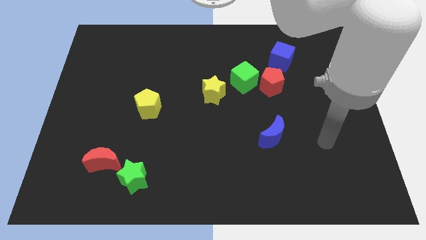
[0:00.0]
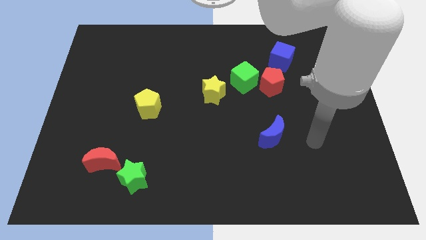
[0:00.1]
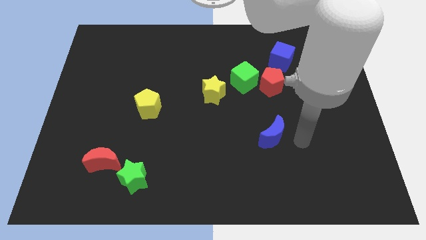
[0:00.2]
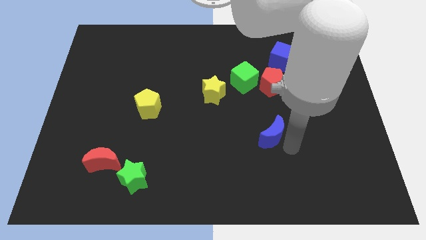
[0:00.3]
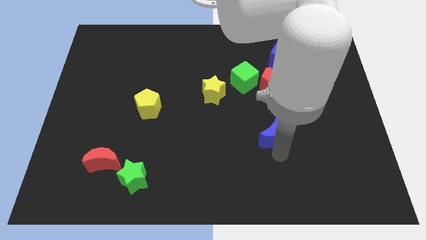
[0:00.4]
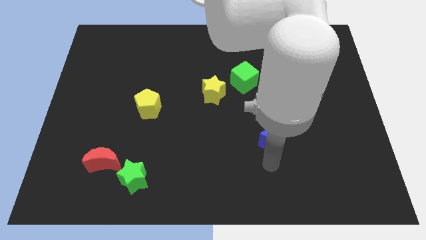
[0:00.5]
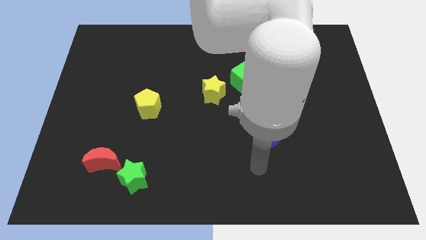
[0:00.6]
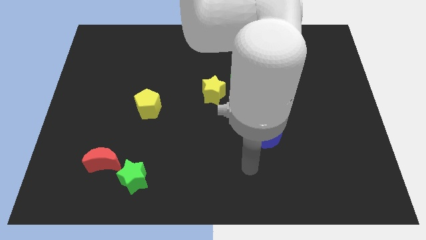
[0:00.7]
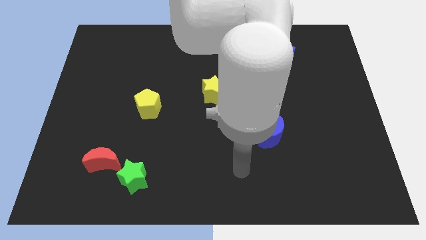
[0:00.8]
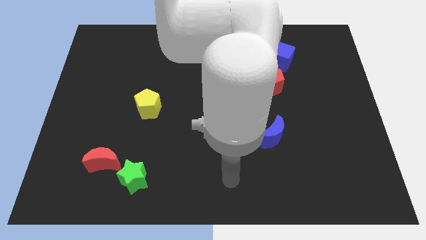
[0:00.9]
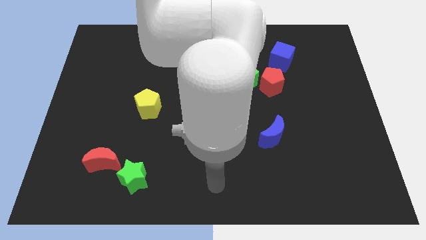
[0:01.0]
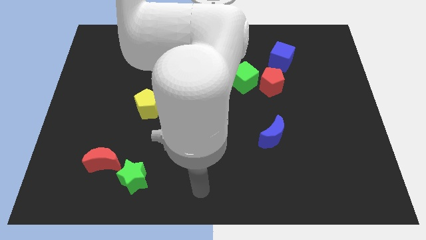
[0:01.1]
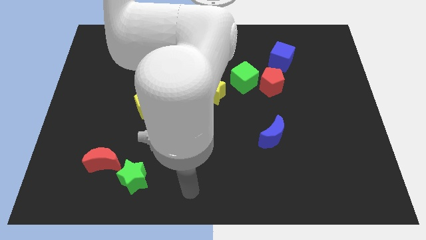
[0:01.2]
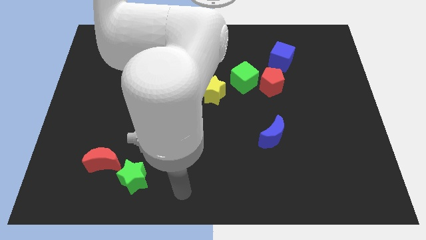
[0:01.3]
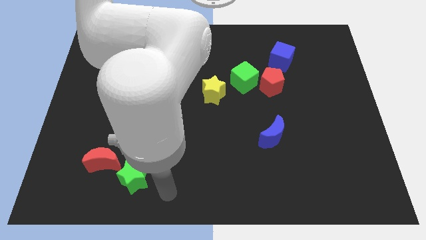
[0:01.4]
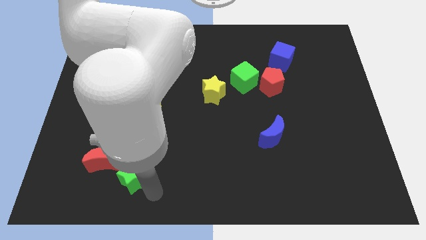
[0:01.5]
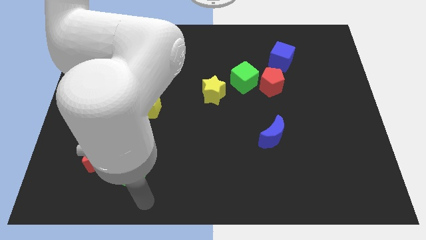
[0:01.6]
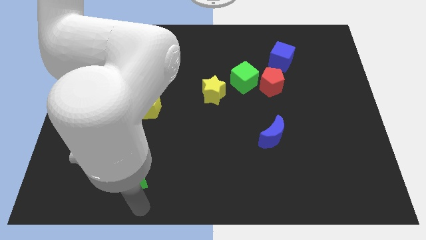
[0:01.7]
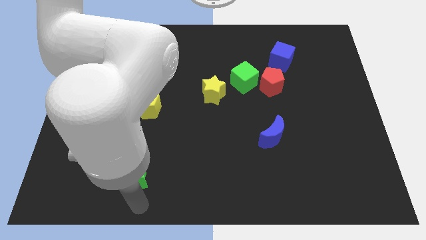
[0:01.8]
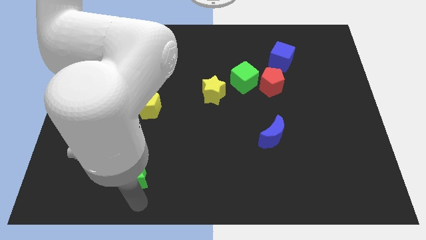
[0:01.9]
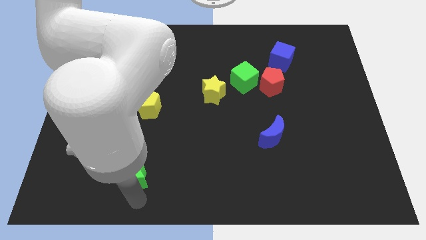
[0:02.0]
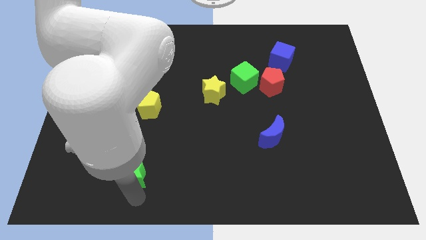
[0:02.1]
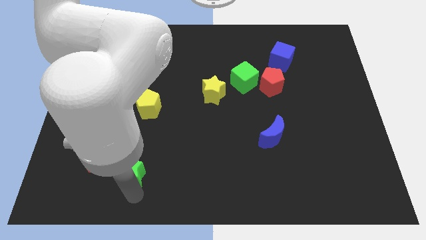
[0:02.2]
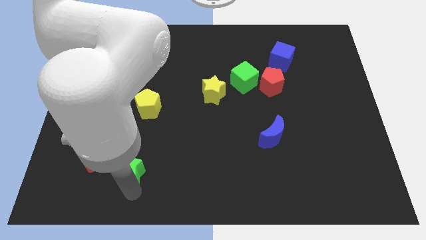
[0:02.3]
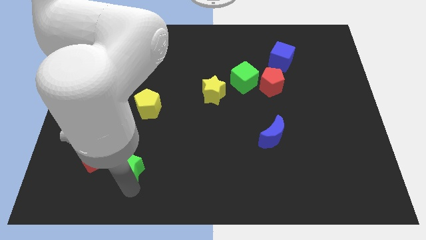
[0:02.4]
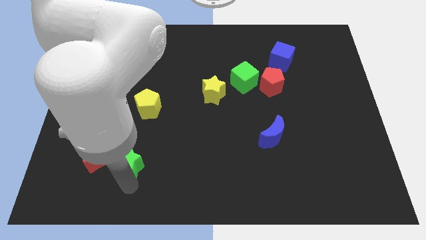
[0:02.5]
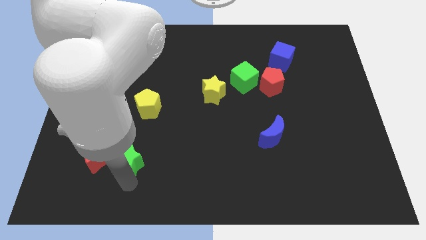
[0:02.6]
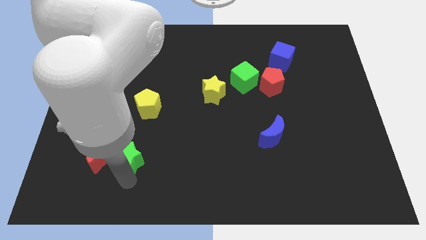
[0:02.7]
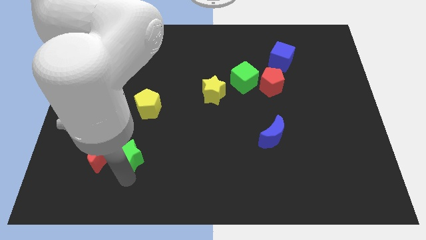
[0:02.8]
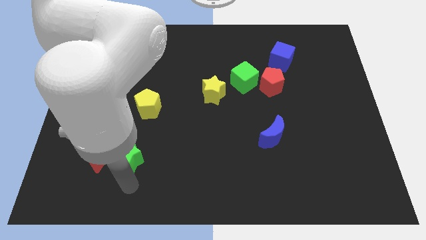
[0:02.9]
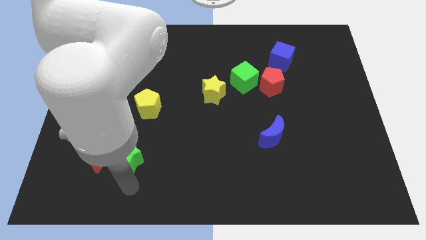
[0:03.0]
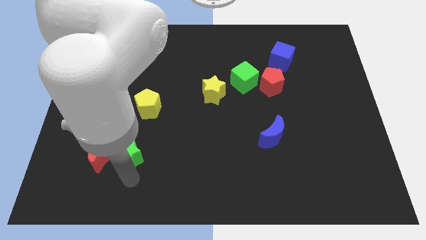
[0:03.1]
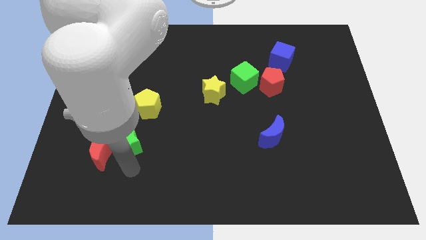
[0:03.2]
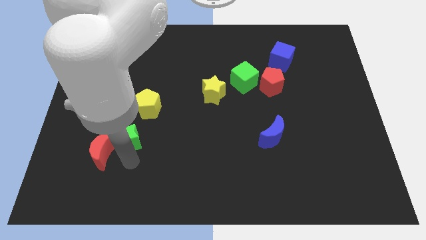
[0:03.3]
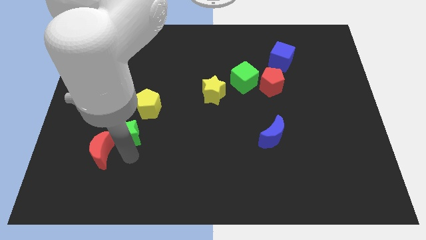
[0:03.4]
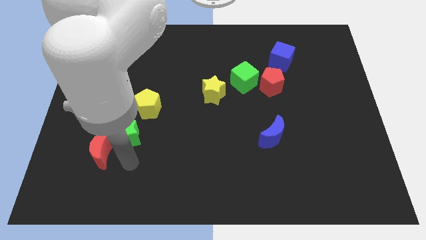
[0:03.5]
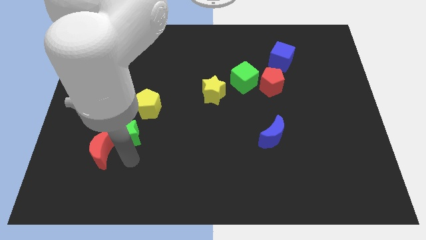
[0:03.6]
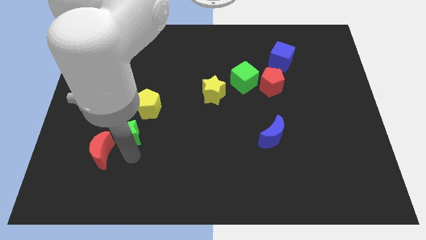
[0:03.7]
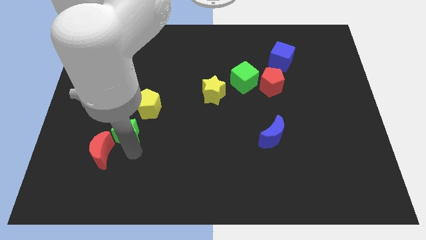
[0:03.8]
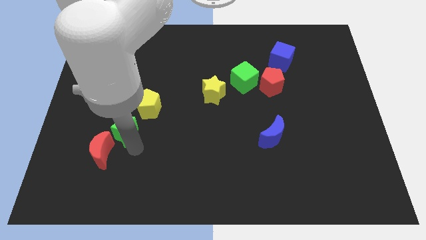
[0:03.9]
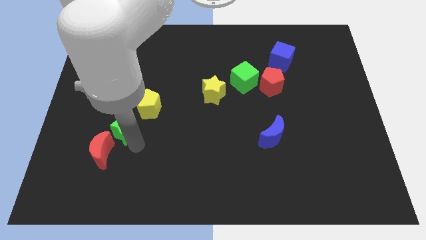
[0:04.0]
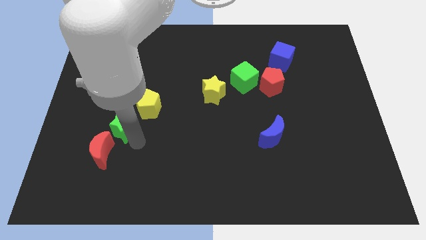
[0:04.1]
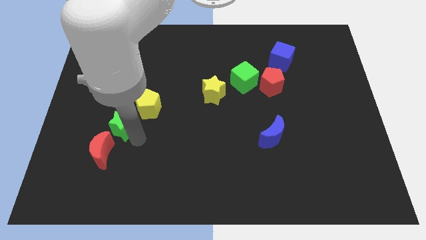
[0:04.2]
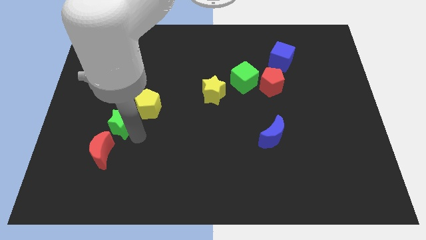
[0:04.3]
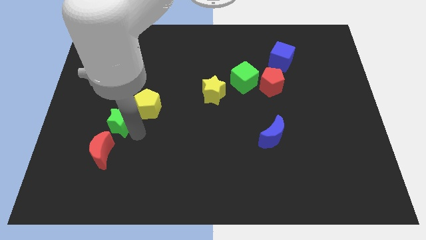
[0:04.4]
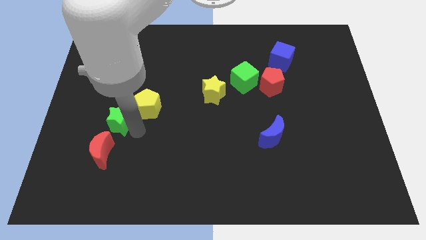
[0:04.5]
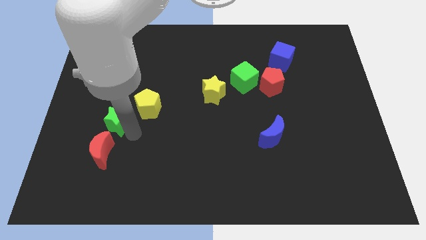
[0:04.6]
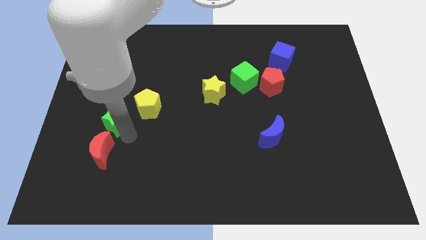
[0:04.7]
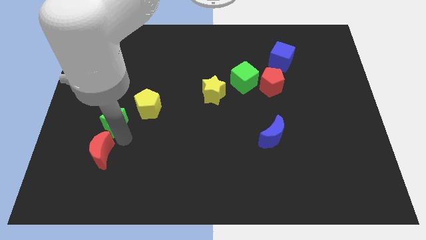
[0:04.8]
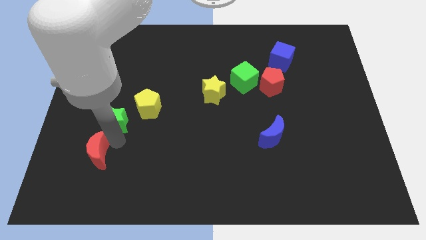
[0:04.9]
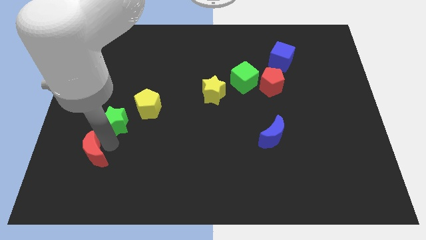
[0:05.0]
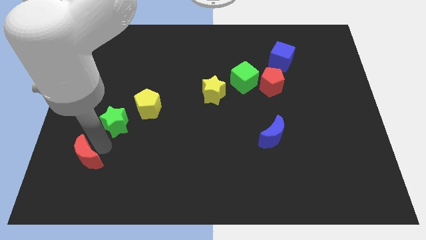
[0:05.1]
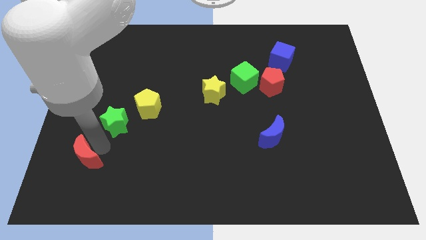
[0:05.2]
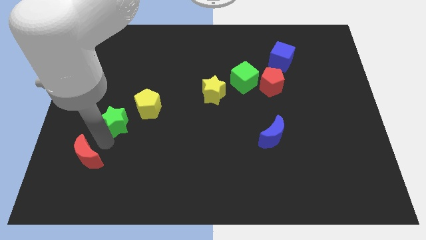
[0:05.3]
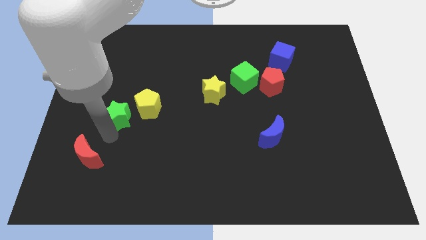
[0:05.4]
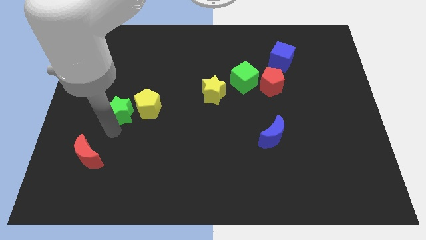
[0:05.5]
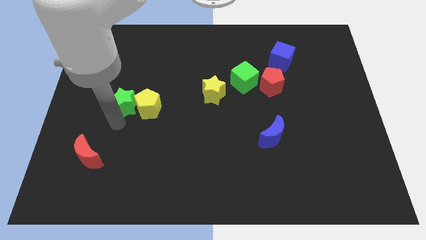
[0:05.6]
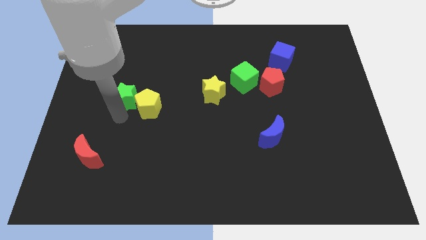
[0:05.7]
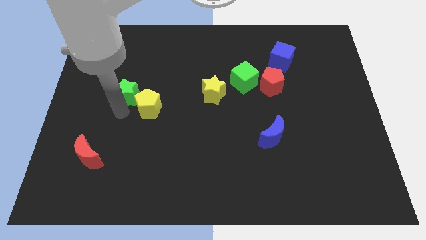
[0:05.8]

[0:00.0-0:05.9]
push the green star upwards

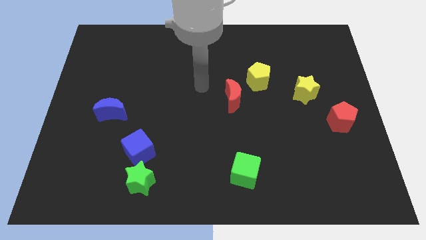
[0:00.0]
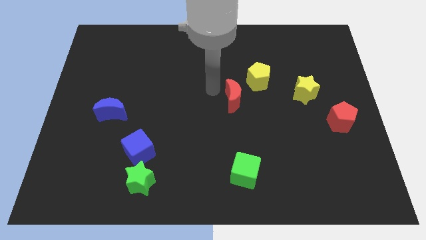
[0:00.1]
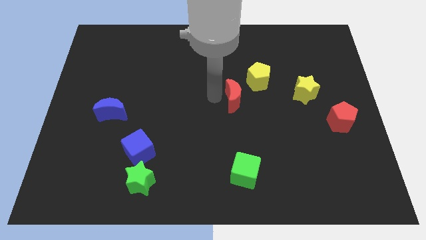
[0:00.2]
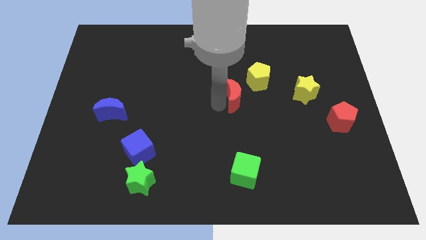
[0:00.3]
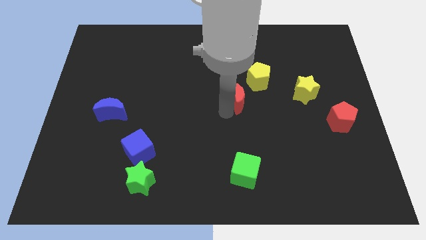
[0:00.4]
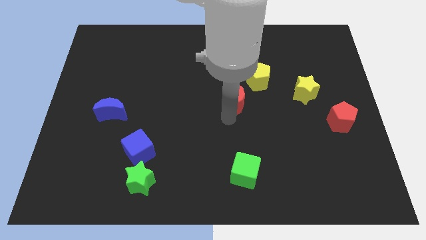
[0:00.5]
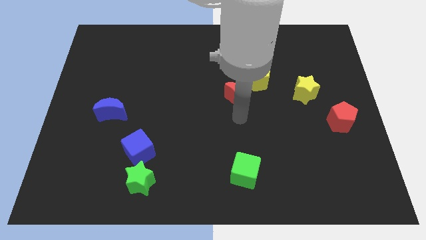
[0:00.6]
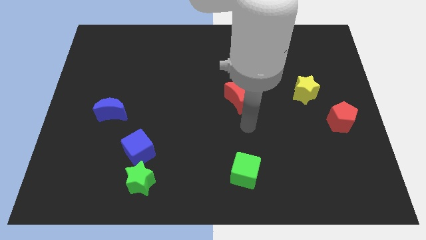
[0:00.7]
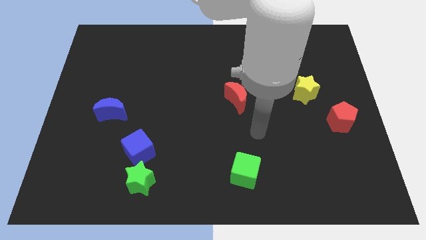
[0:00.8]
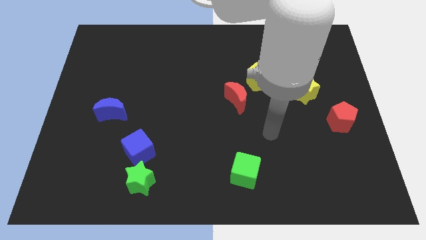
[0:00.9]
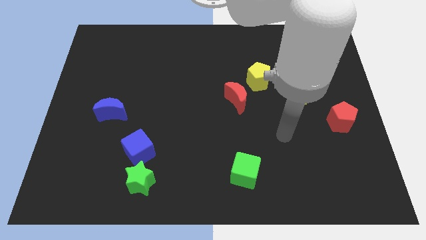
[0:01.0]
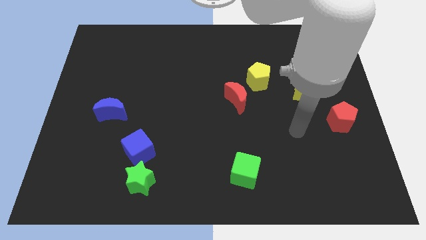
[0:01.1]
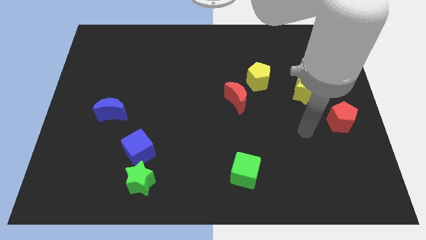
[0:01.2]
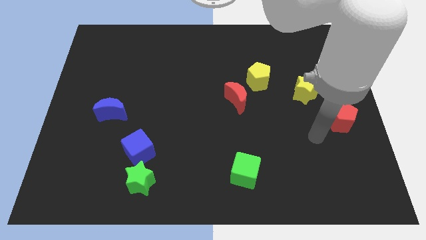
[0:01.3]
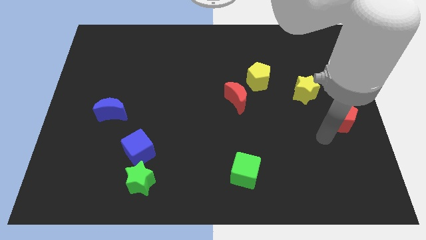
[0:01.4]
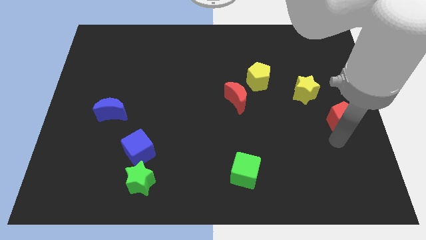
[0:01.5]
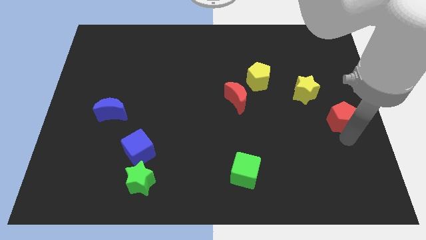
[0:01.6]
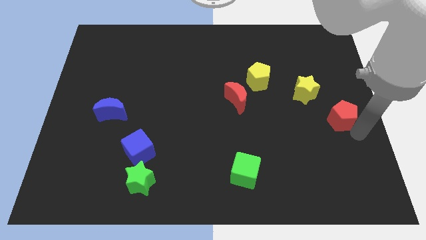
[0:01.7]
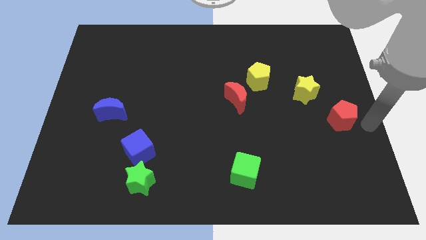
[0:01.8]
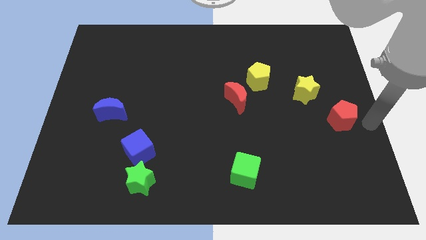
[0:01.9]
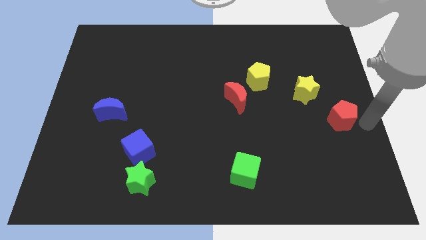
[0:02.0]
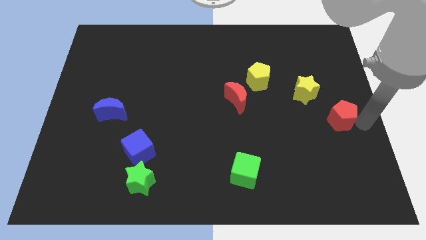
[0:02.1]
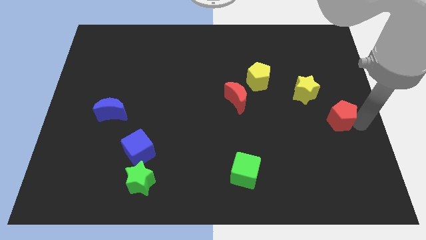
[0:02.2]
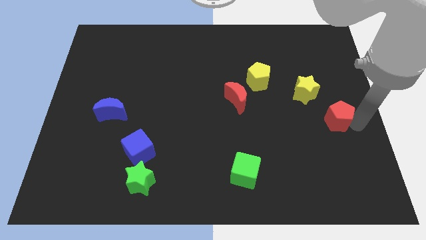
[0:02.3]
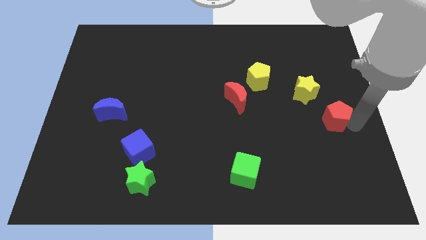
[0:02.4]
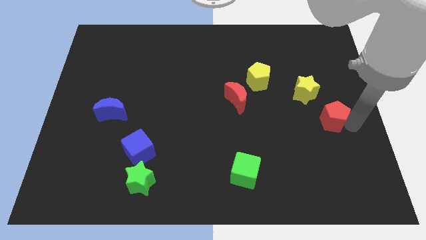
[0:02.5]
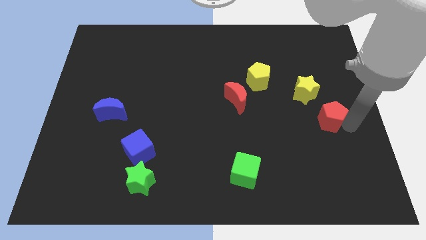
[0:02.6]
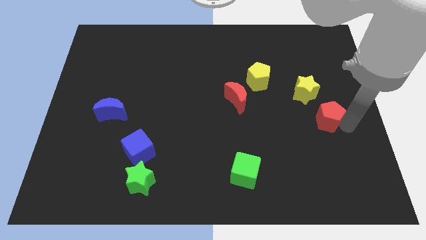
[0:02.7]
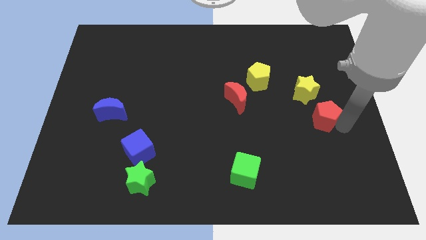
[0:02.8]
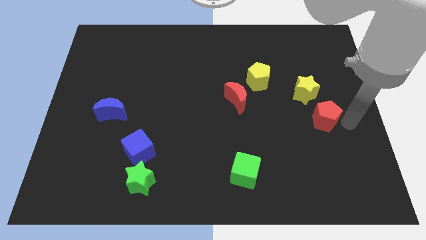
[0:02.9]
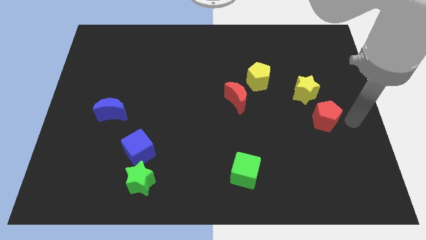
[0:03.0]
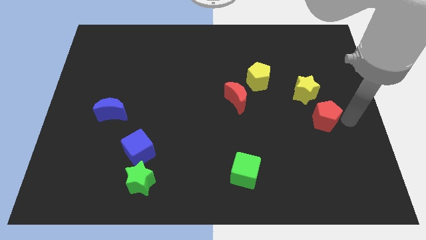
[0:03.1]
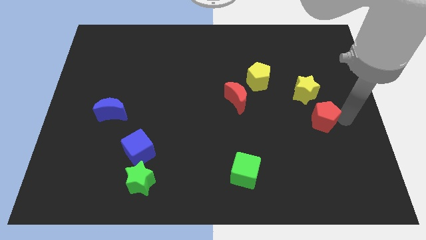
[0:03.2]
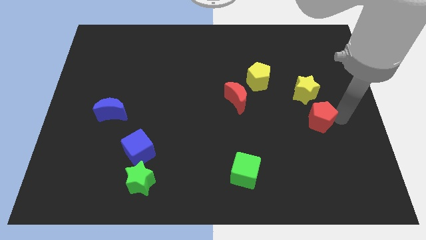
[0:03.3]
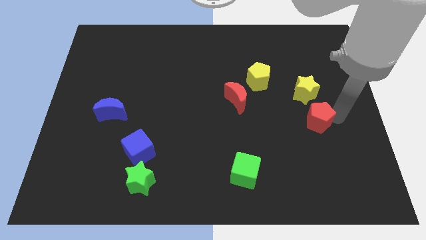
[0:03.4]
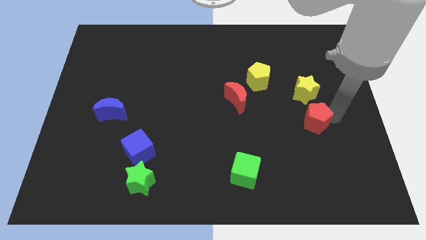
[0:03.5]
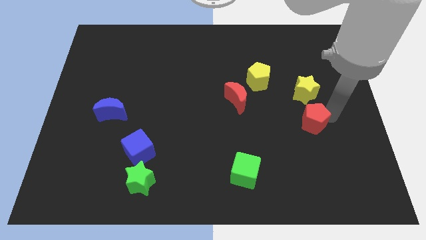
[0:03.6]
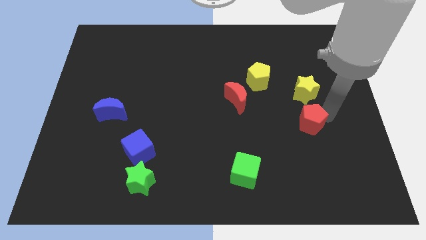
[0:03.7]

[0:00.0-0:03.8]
move the red pentagon left a little bit
